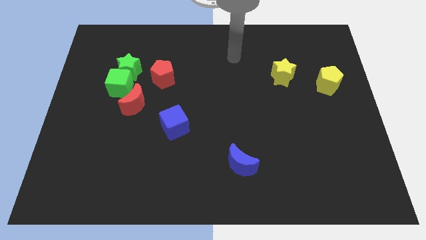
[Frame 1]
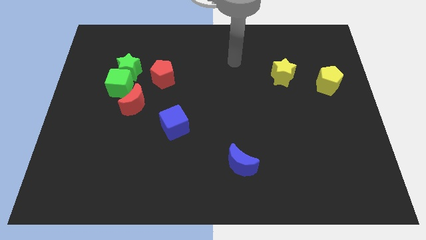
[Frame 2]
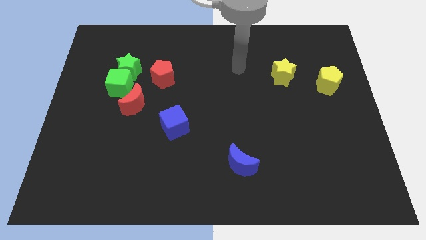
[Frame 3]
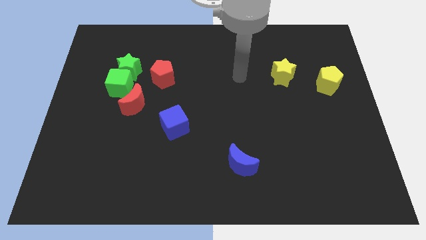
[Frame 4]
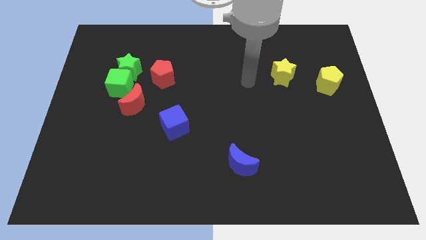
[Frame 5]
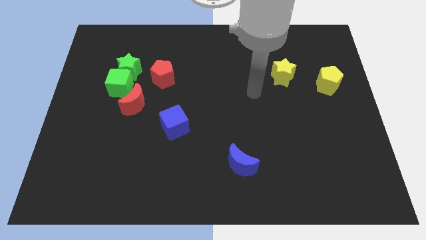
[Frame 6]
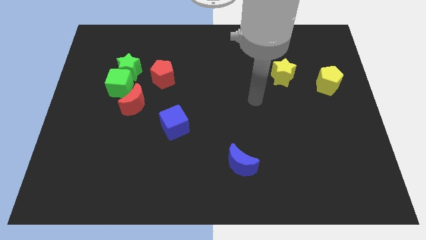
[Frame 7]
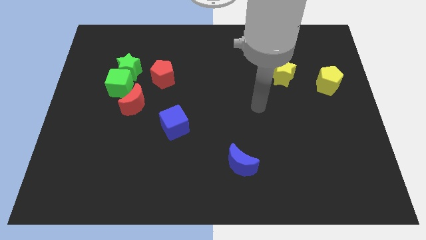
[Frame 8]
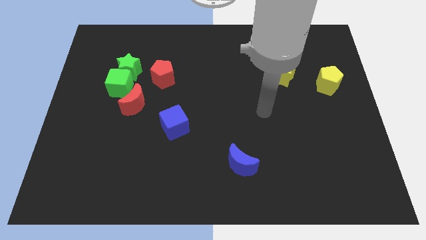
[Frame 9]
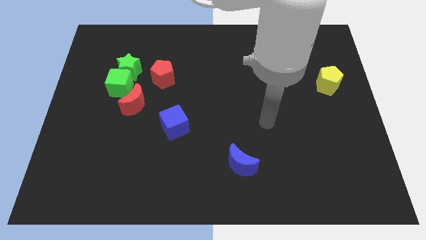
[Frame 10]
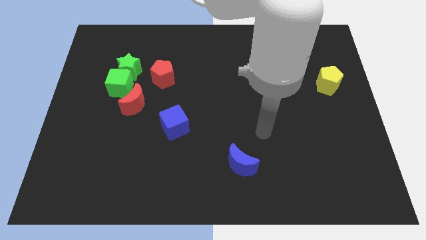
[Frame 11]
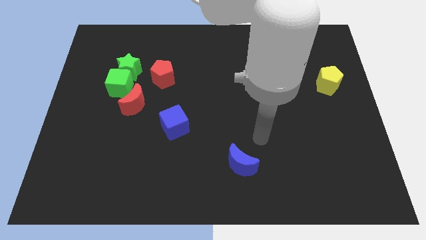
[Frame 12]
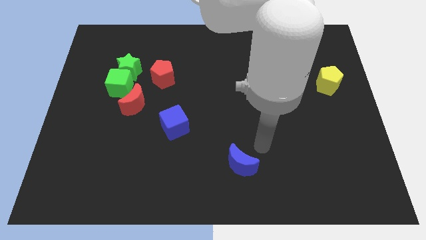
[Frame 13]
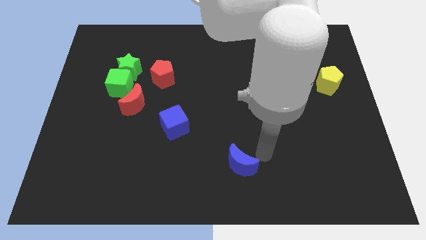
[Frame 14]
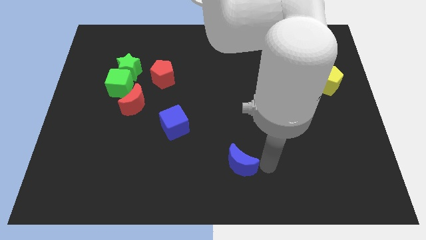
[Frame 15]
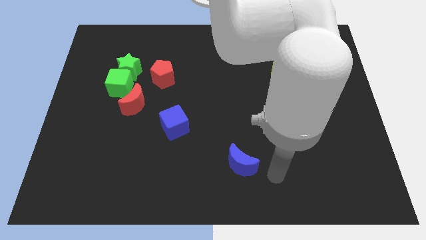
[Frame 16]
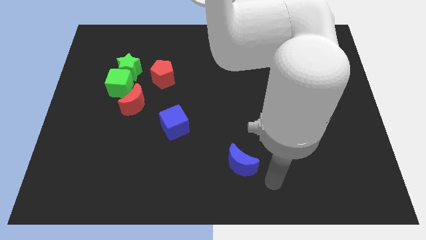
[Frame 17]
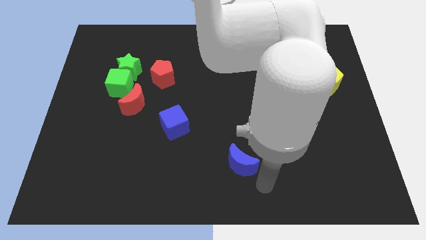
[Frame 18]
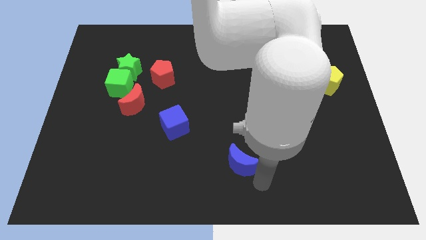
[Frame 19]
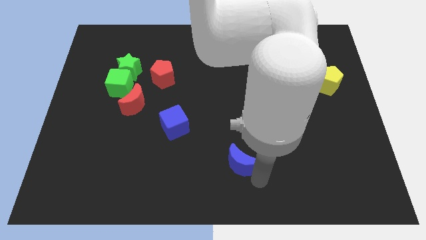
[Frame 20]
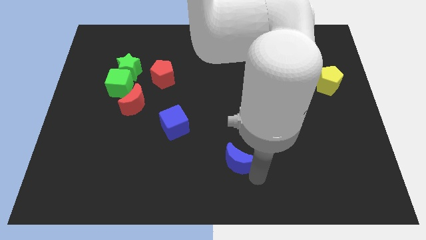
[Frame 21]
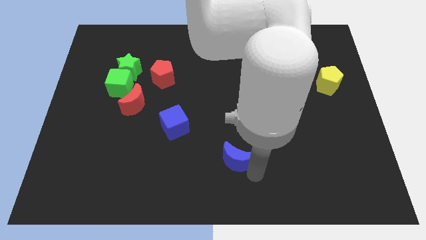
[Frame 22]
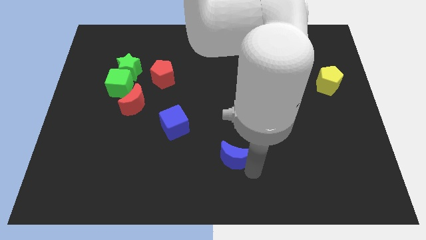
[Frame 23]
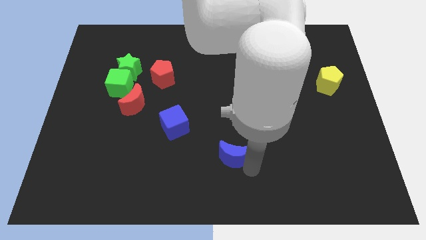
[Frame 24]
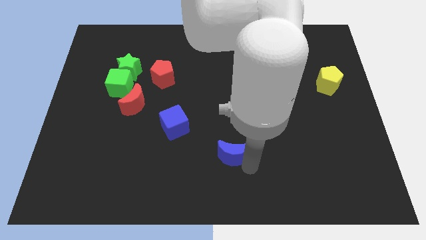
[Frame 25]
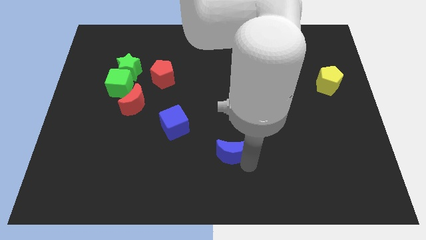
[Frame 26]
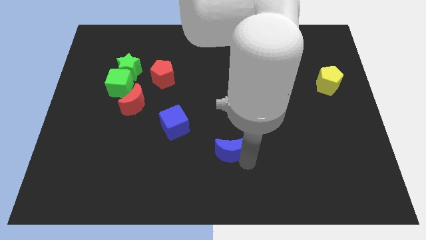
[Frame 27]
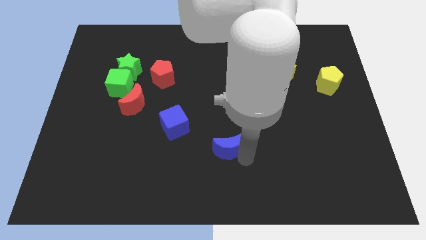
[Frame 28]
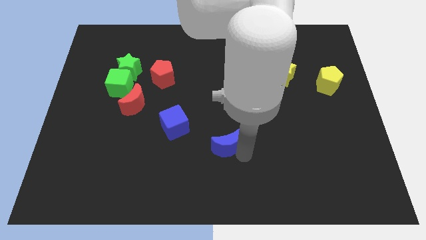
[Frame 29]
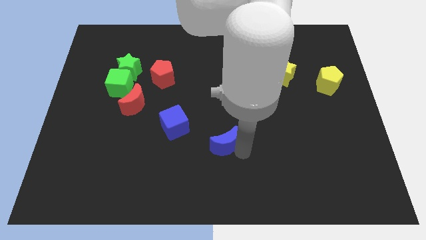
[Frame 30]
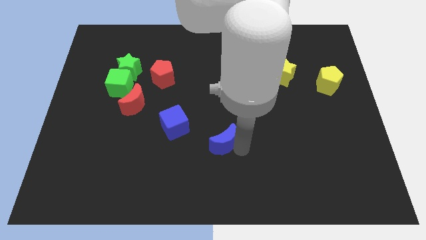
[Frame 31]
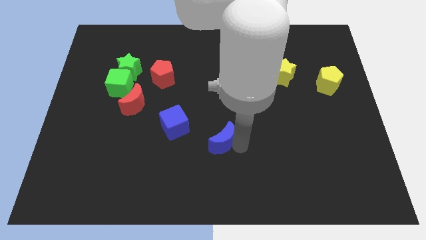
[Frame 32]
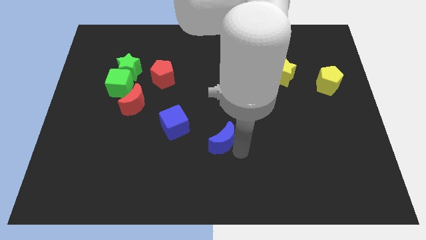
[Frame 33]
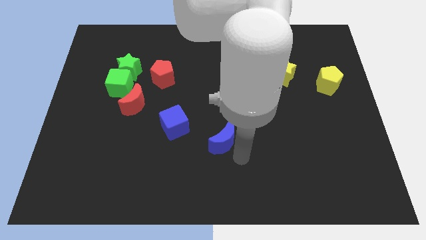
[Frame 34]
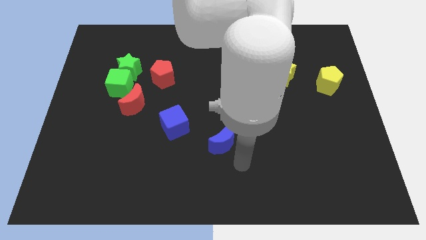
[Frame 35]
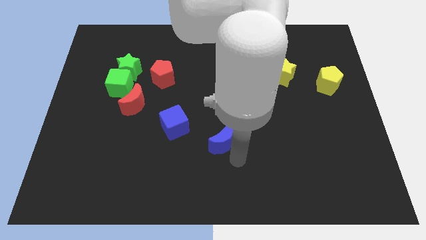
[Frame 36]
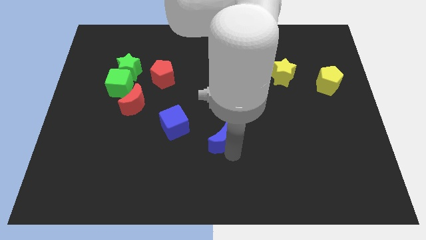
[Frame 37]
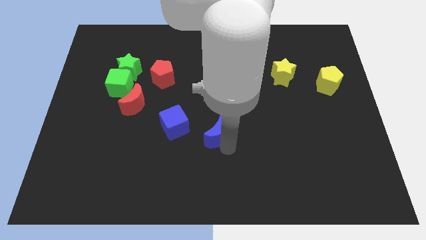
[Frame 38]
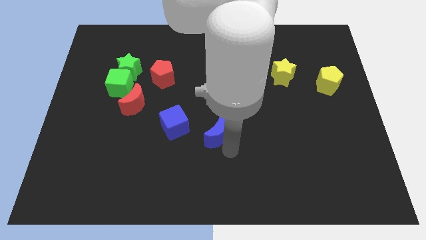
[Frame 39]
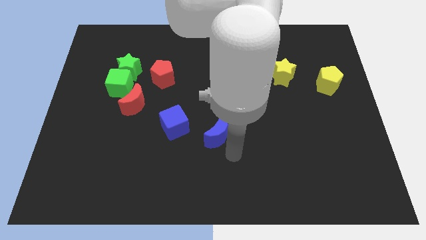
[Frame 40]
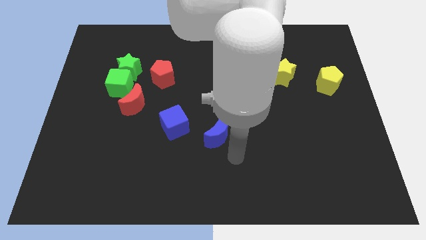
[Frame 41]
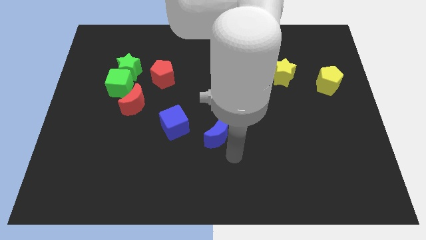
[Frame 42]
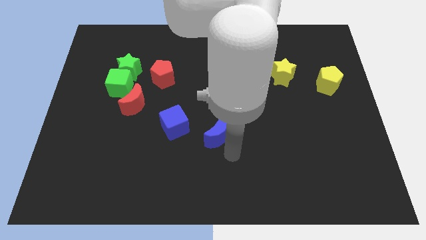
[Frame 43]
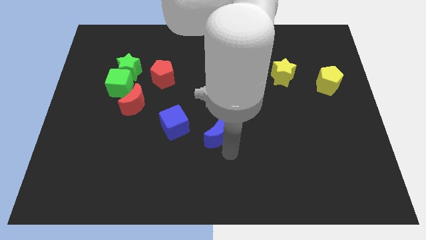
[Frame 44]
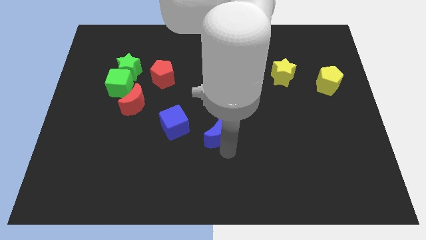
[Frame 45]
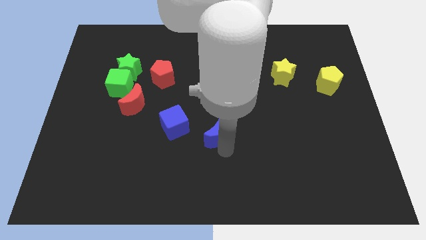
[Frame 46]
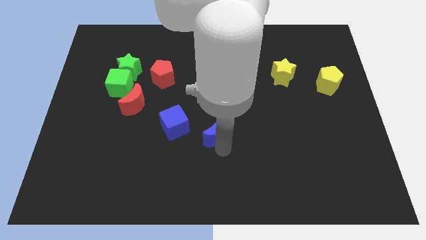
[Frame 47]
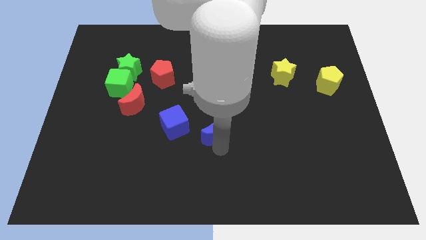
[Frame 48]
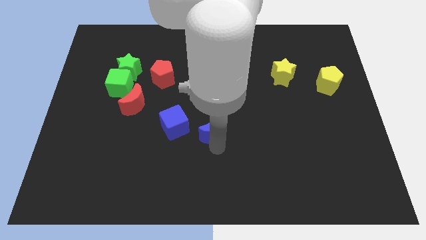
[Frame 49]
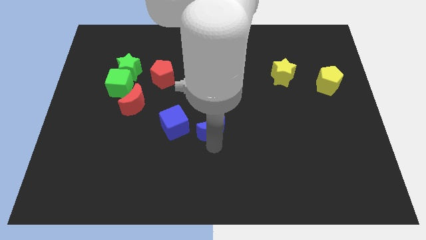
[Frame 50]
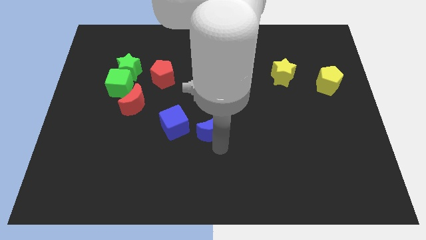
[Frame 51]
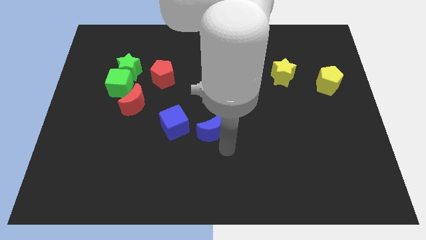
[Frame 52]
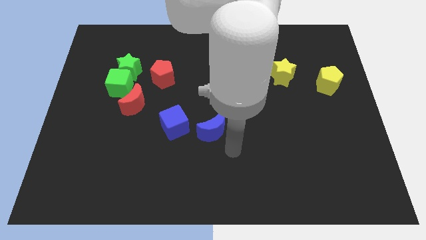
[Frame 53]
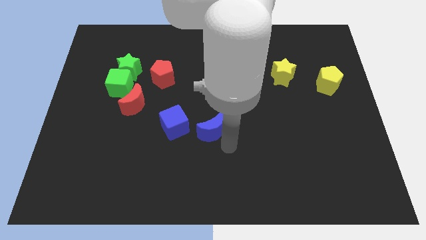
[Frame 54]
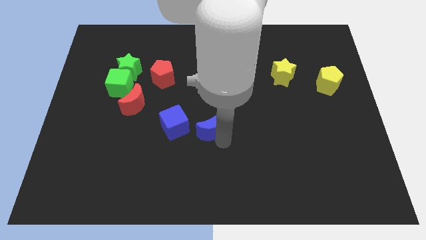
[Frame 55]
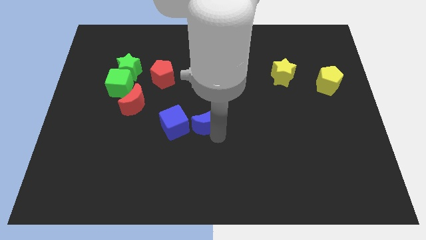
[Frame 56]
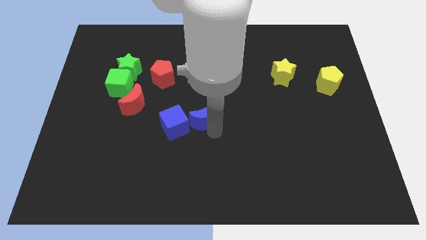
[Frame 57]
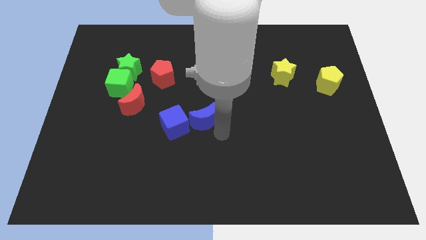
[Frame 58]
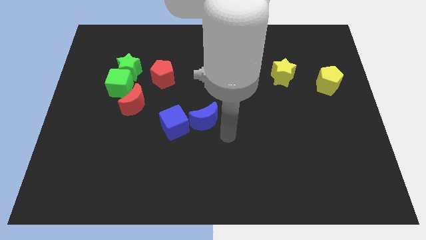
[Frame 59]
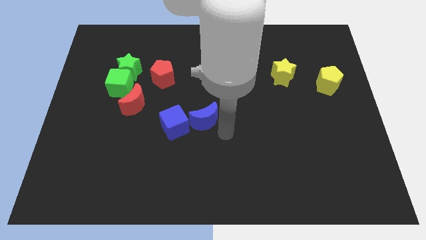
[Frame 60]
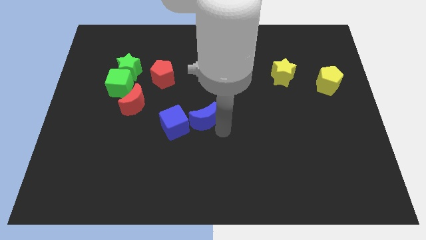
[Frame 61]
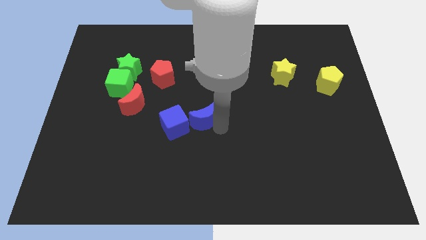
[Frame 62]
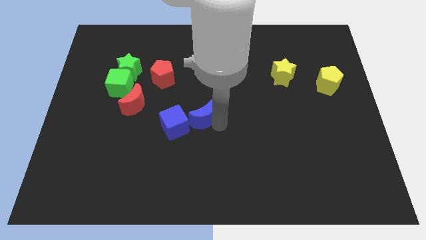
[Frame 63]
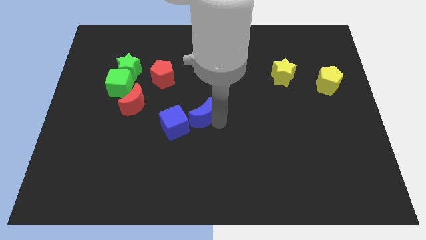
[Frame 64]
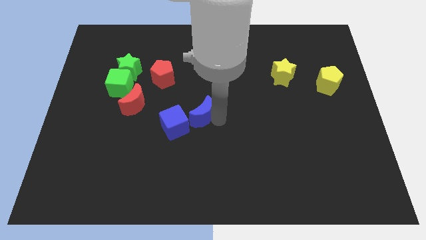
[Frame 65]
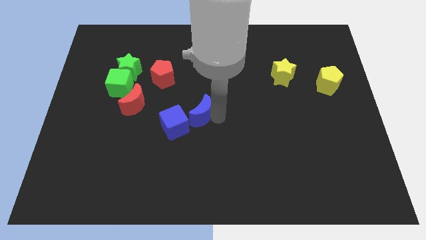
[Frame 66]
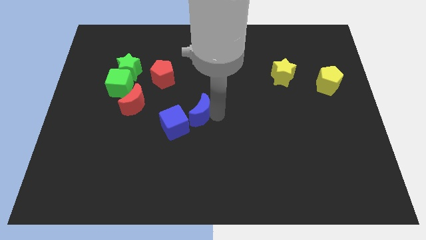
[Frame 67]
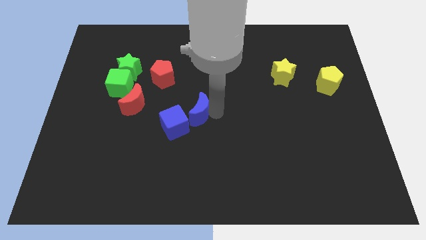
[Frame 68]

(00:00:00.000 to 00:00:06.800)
push the blue moon to the right side of the red moon
